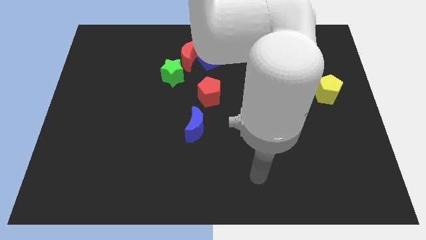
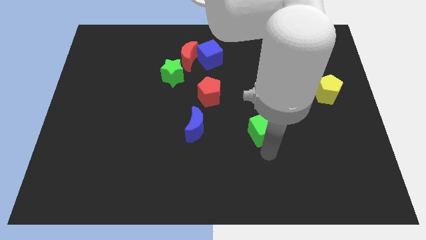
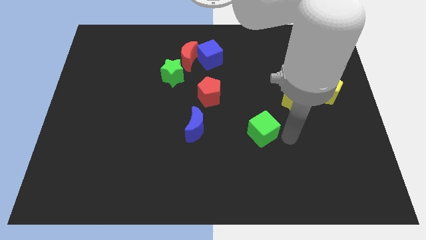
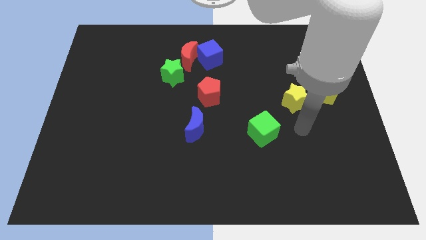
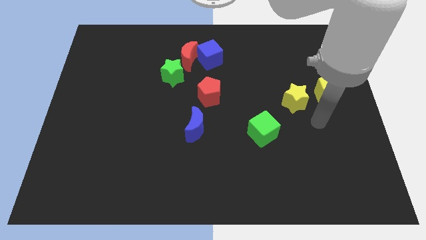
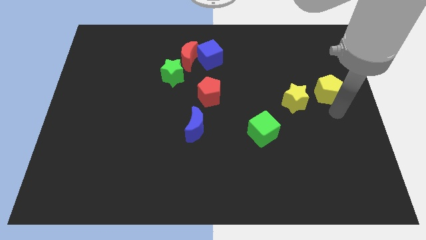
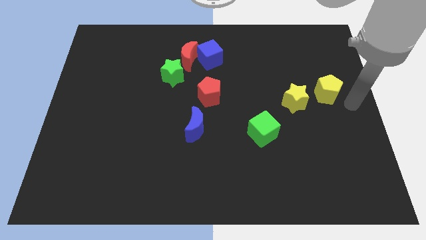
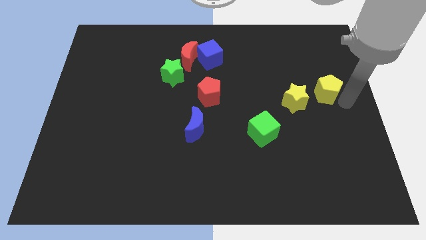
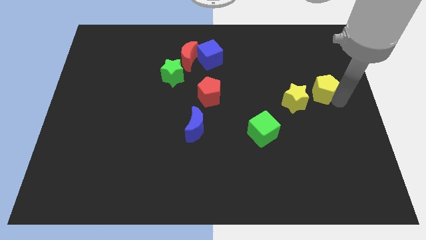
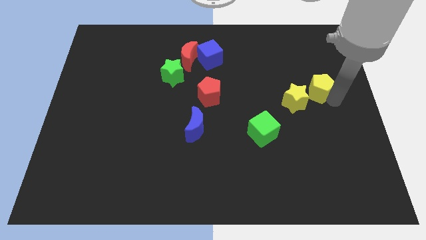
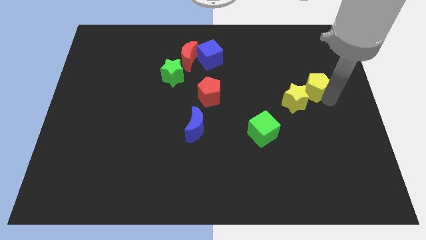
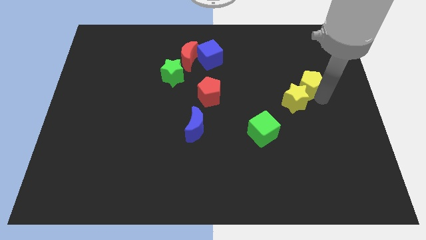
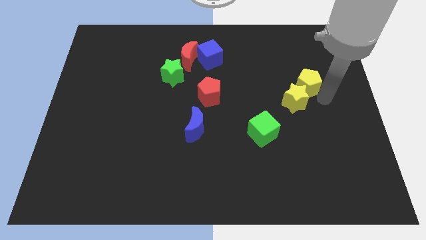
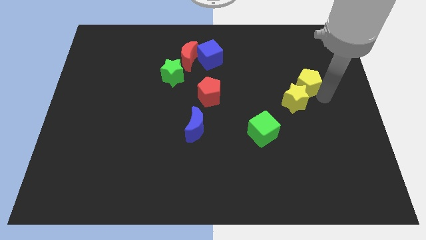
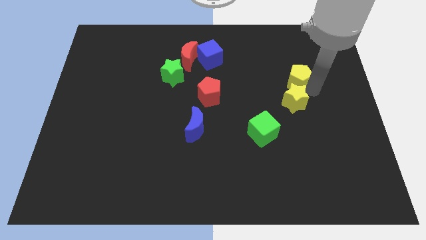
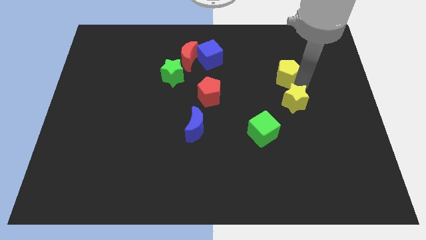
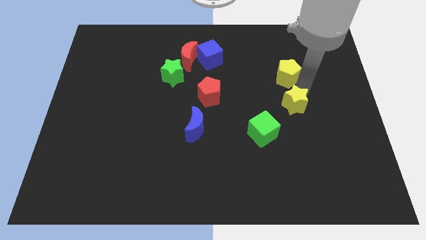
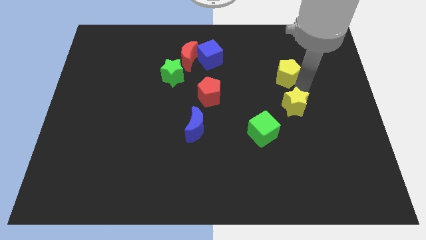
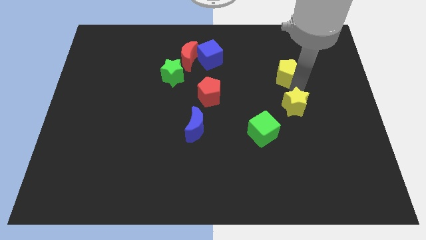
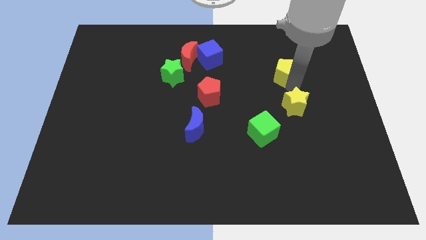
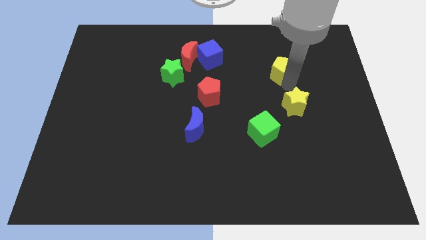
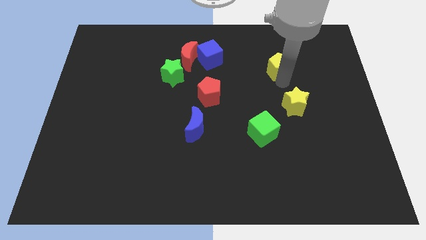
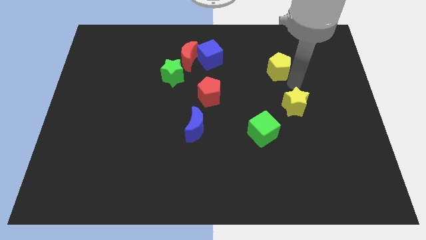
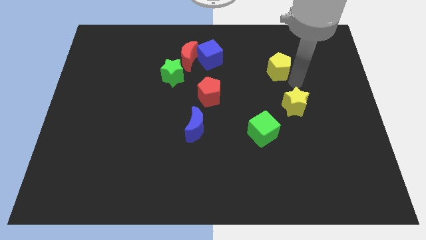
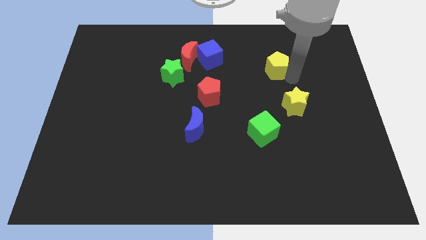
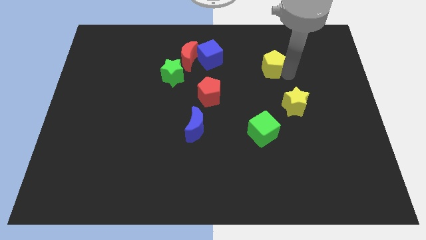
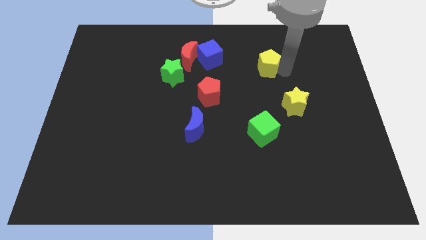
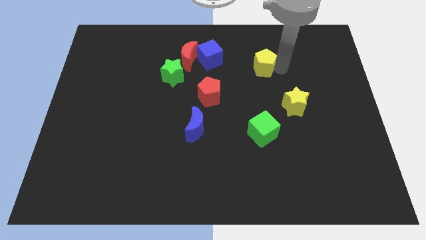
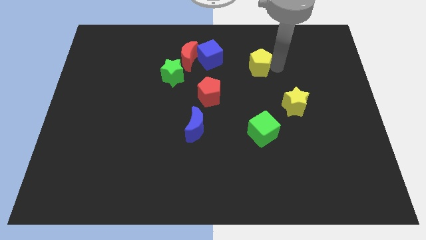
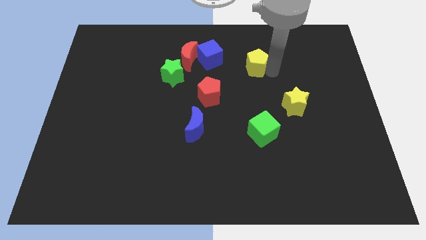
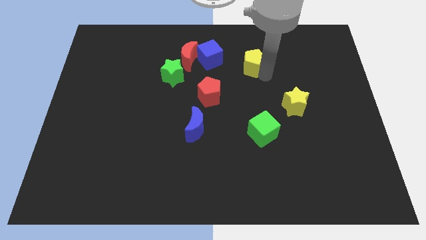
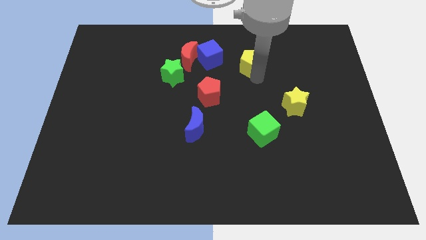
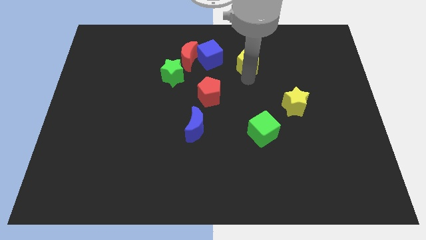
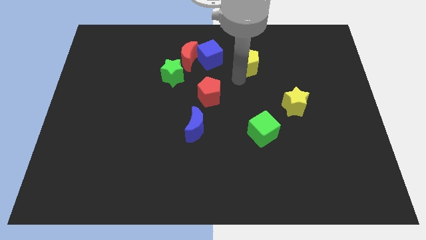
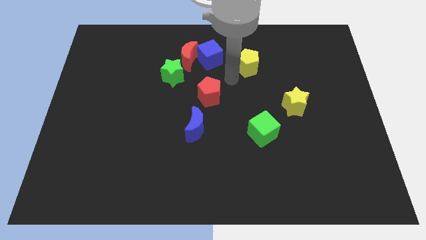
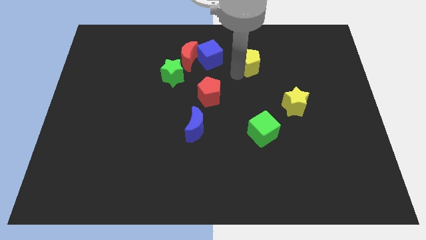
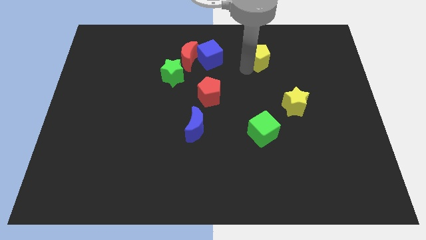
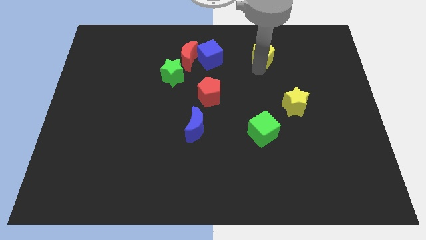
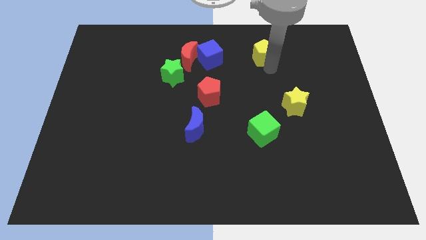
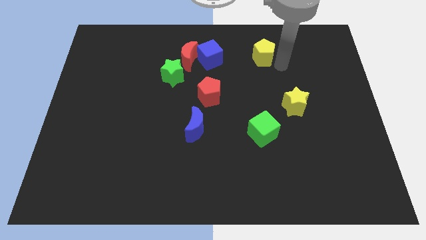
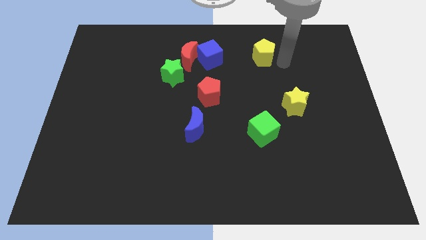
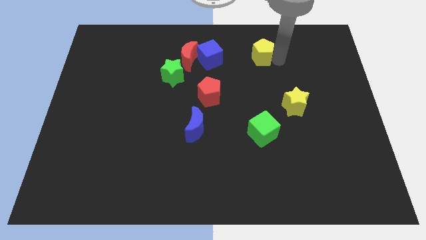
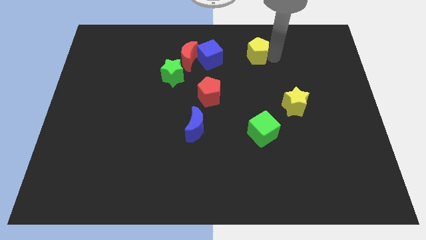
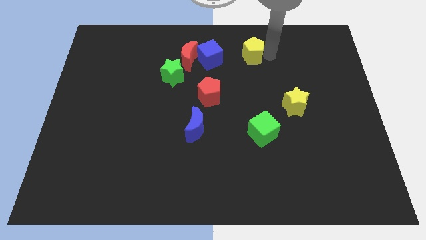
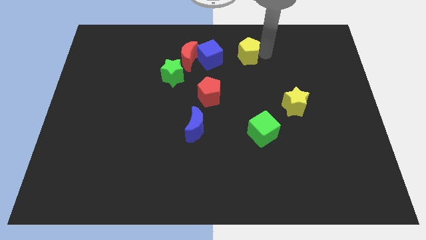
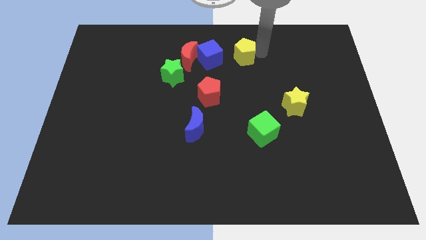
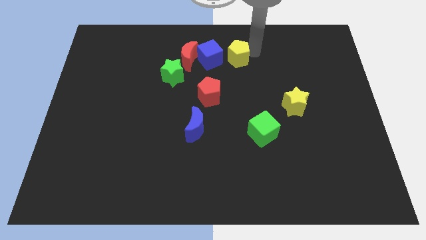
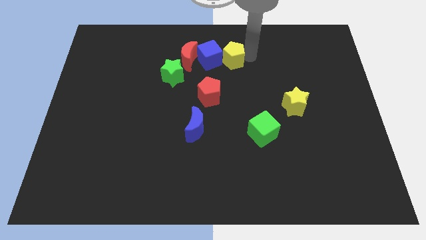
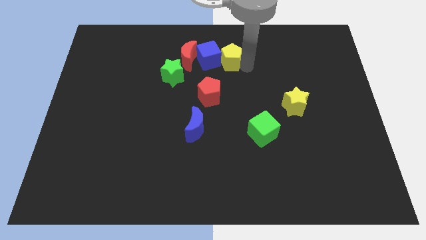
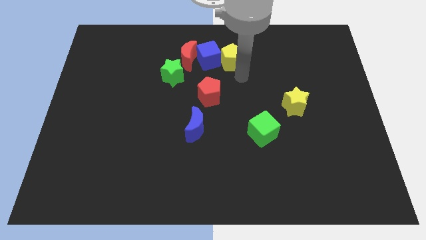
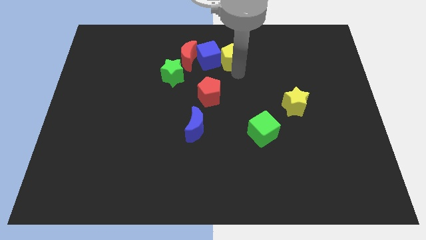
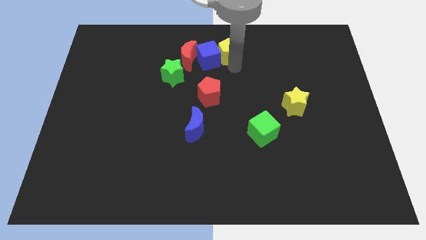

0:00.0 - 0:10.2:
push the yellow pentagon to the top

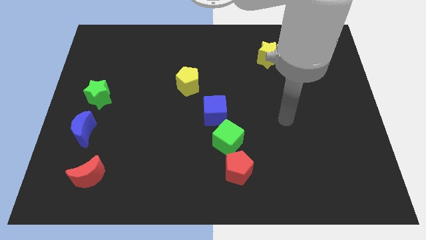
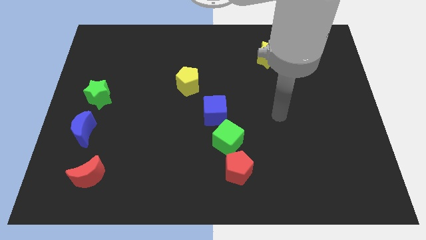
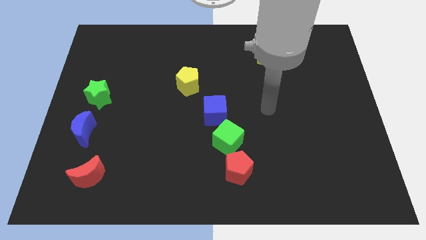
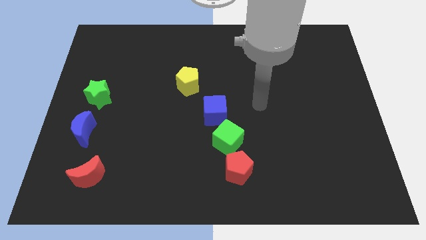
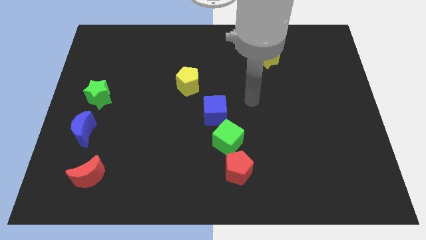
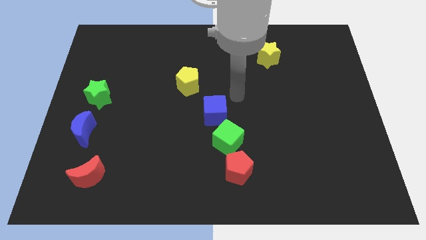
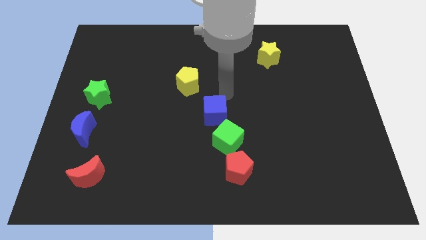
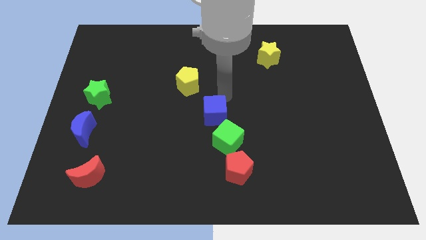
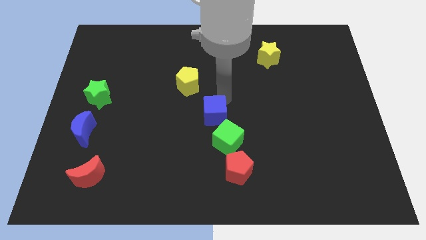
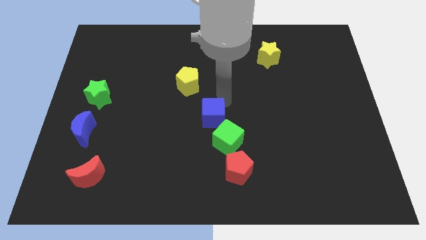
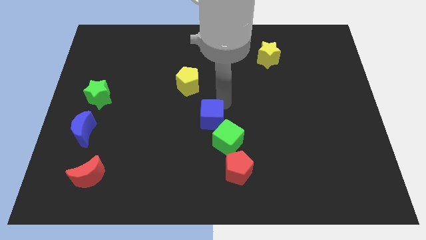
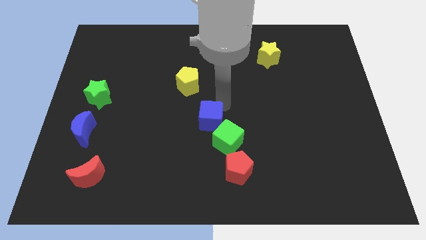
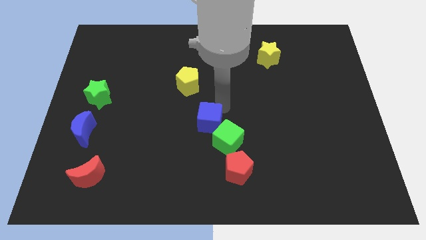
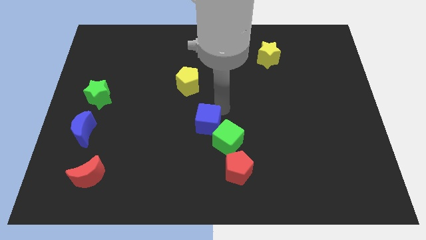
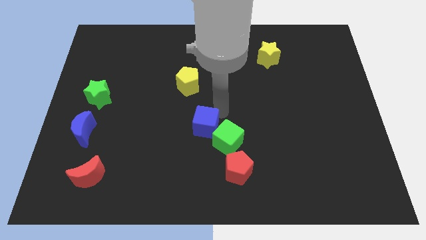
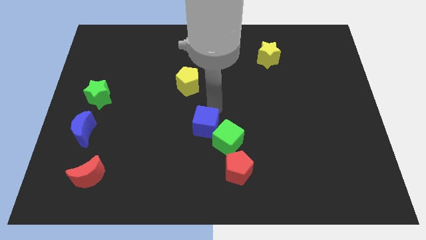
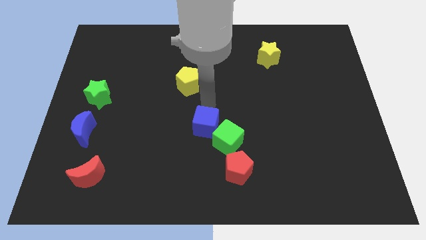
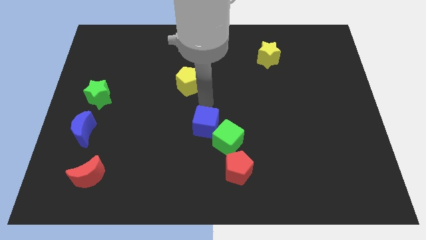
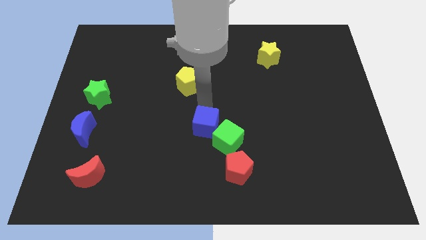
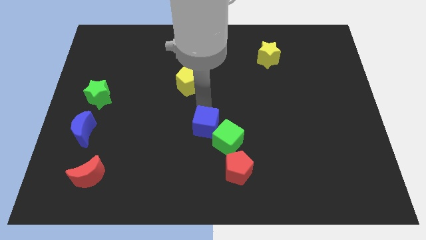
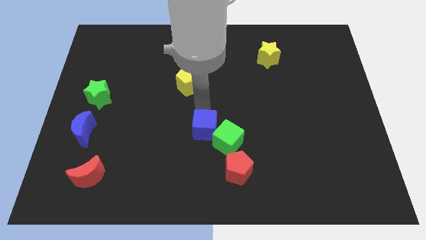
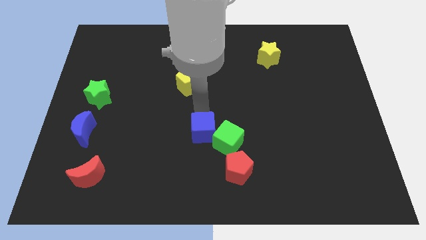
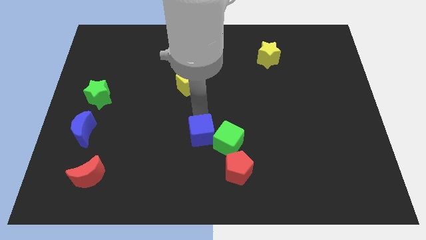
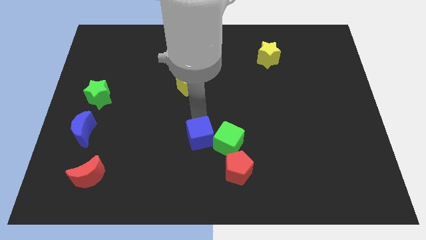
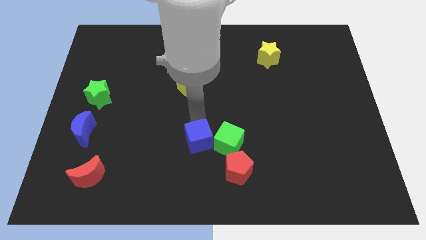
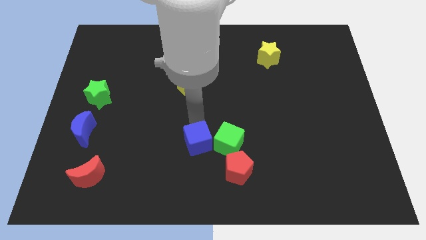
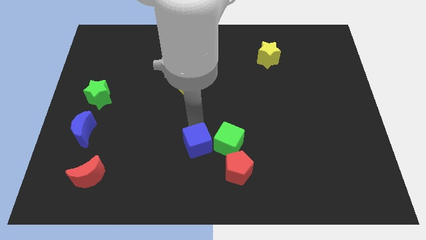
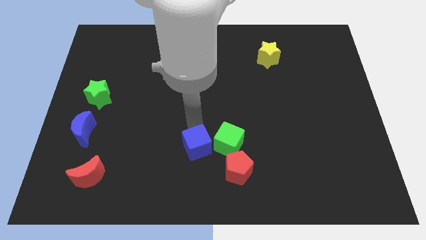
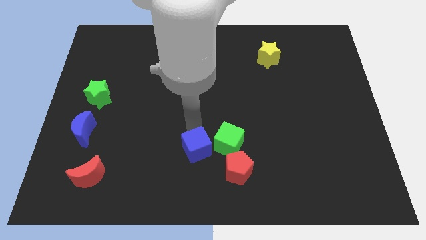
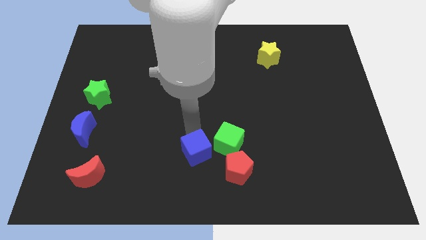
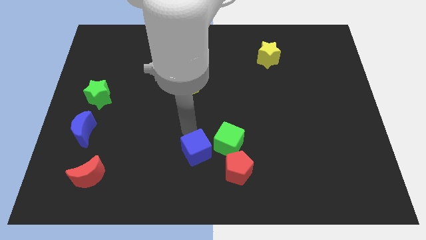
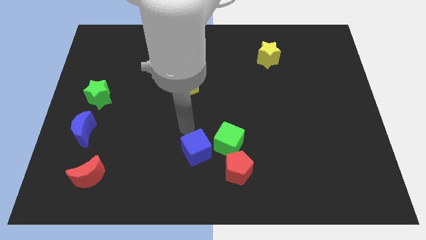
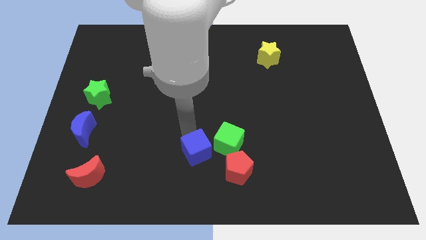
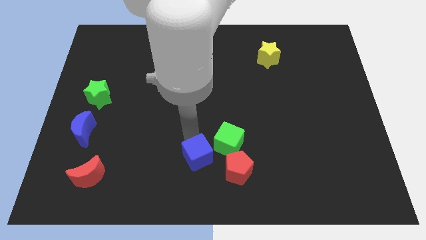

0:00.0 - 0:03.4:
slide the blue cube to the bottom side
